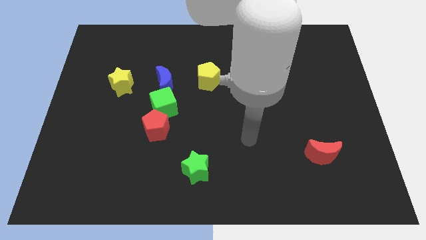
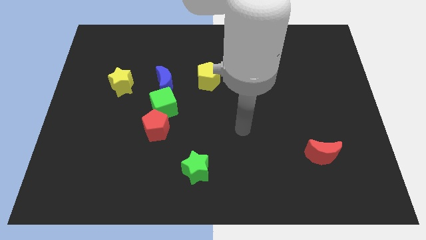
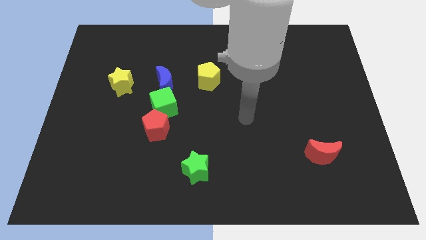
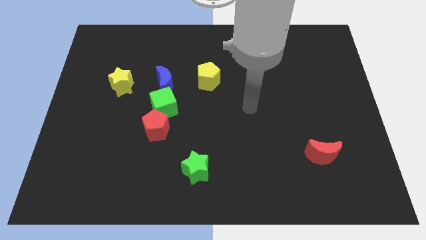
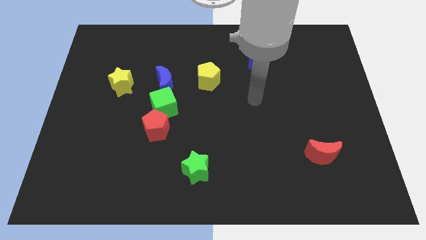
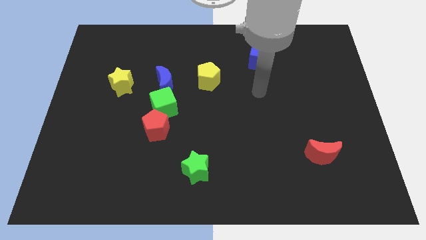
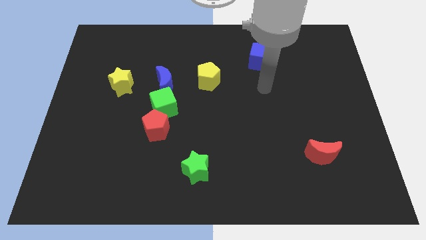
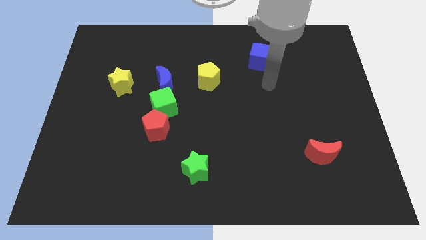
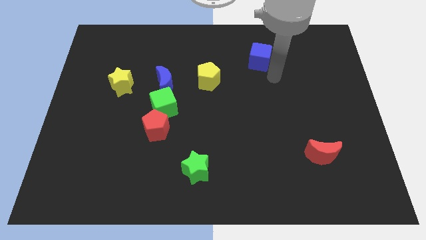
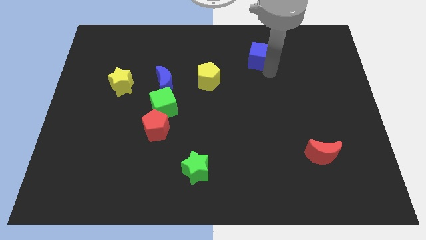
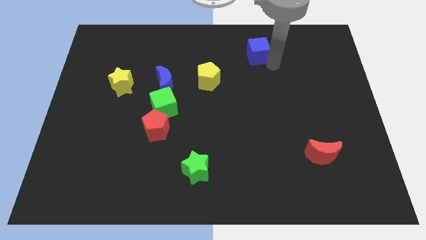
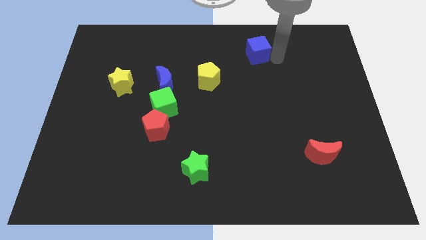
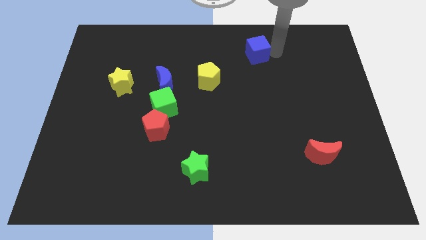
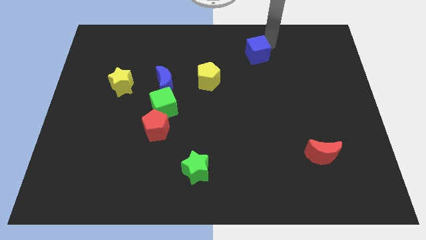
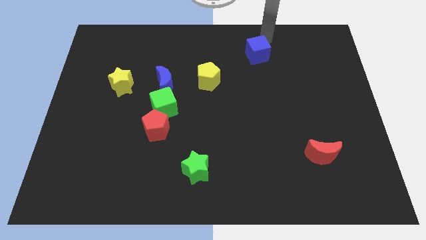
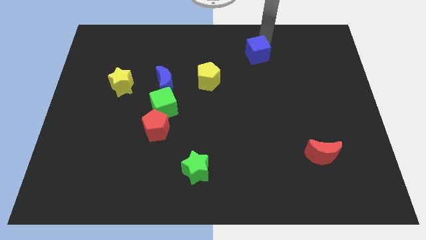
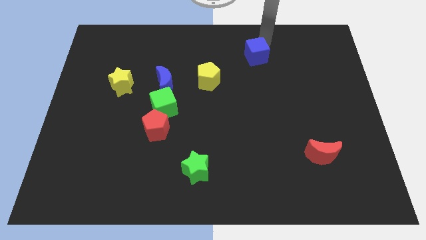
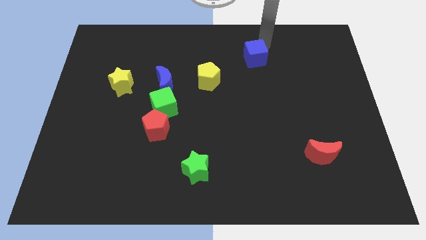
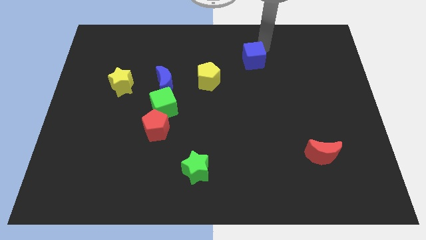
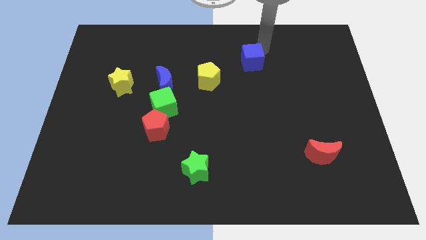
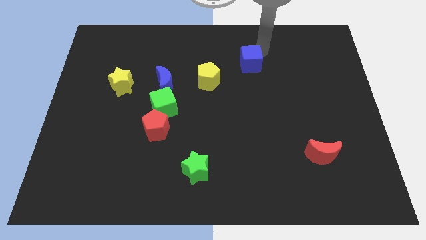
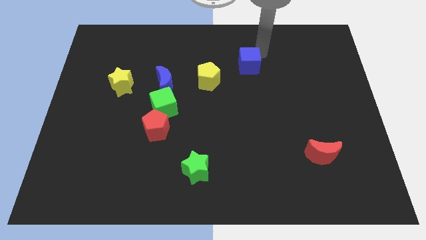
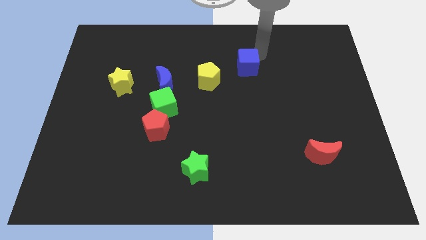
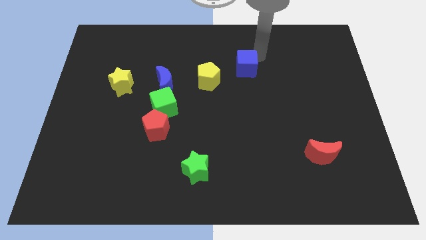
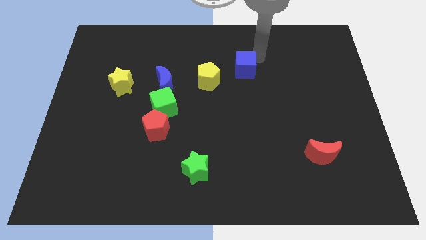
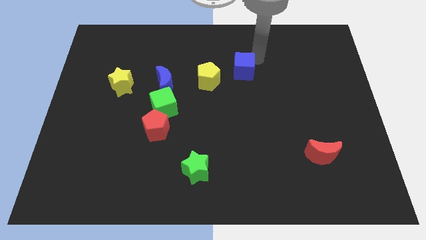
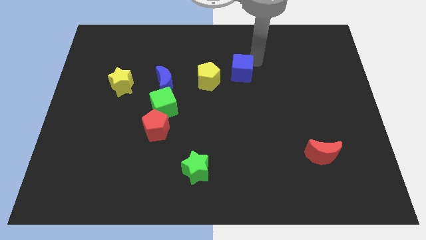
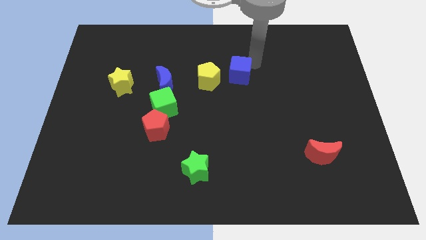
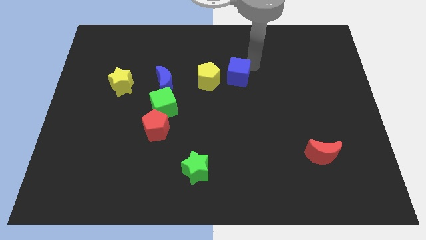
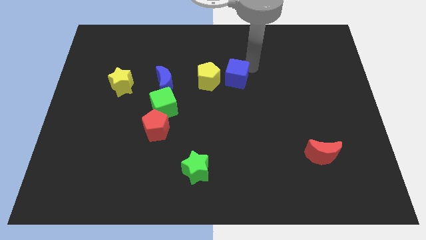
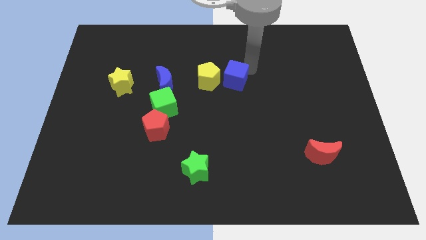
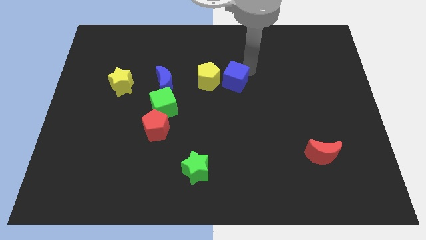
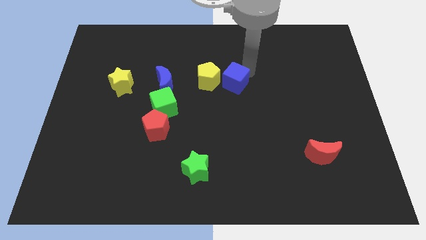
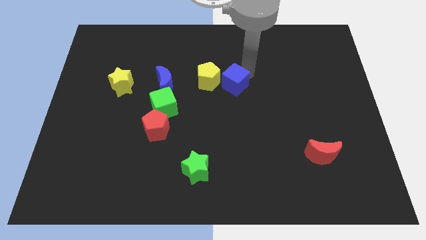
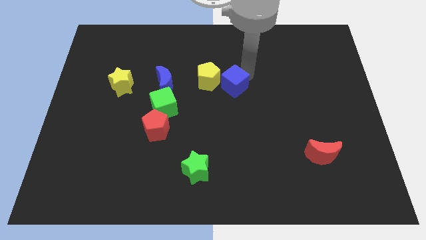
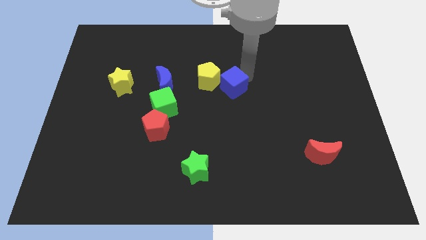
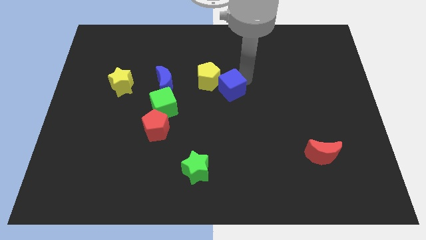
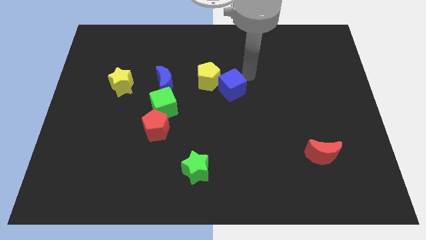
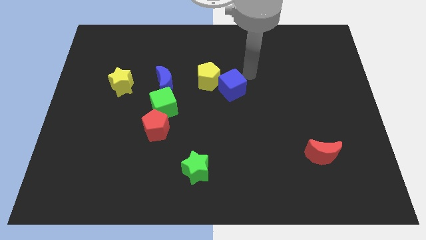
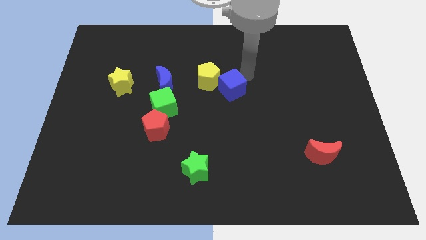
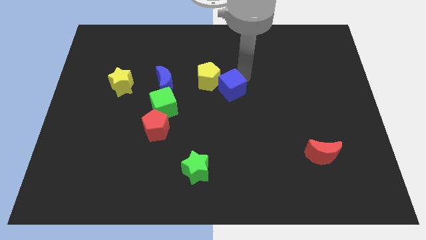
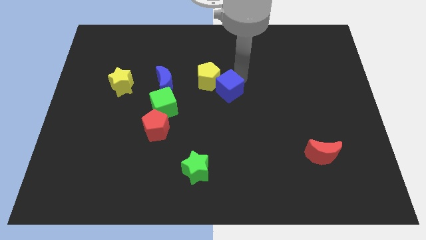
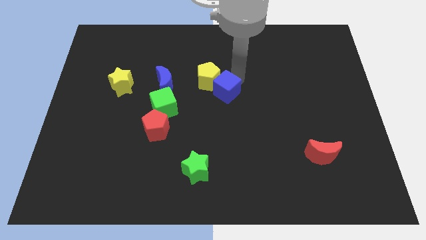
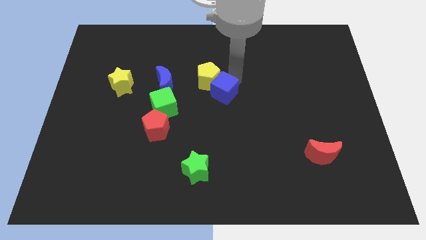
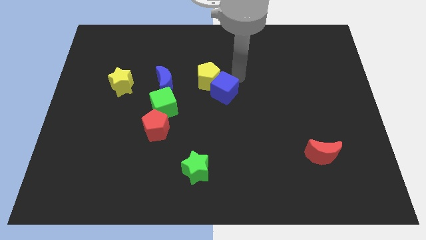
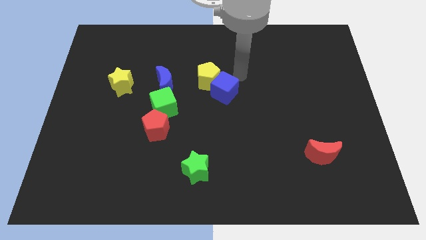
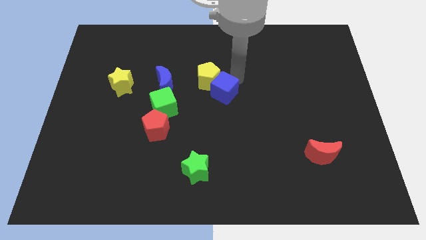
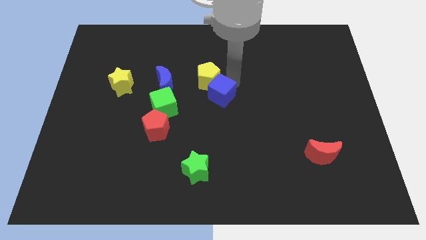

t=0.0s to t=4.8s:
push the blue cube right of the green cube

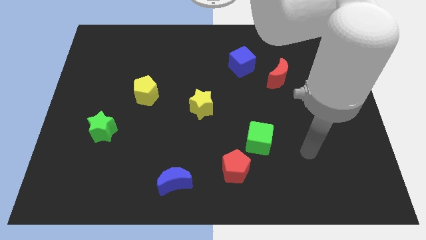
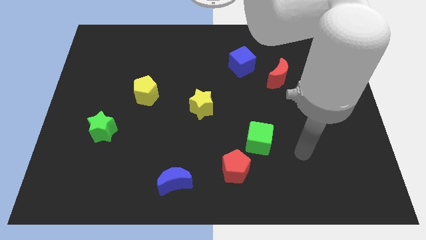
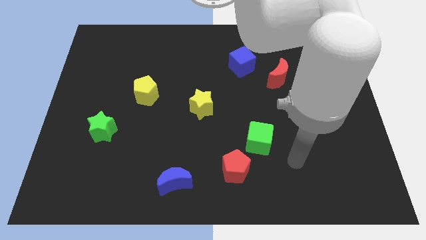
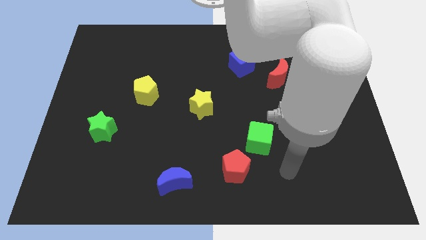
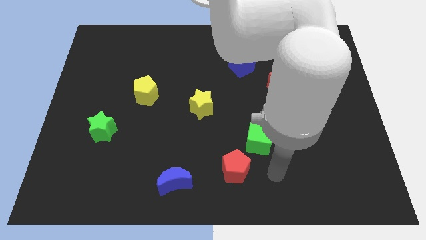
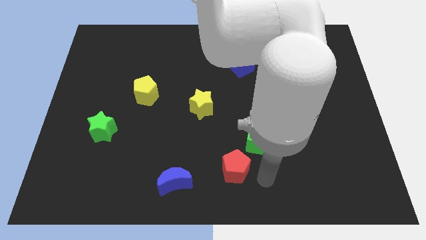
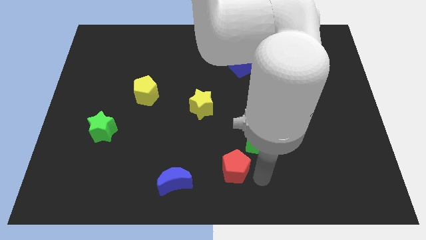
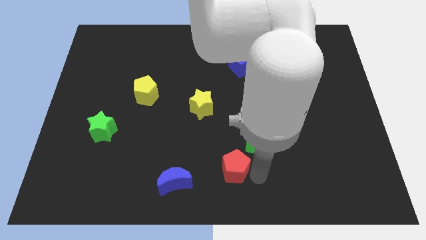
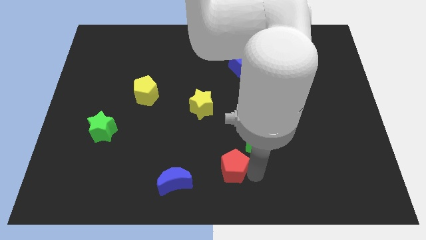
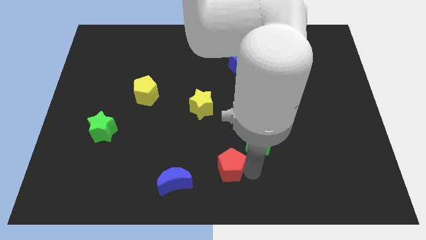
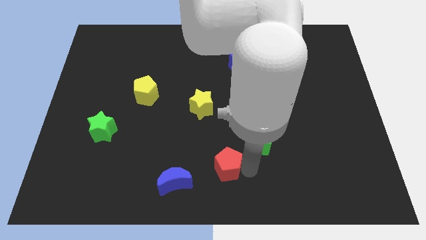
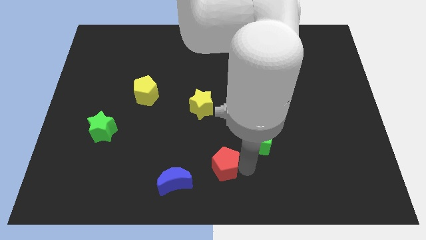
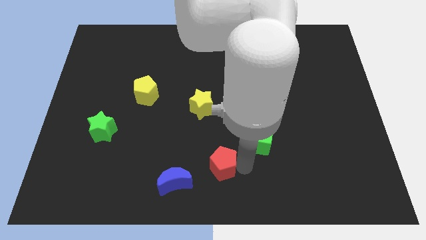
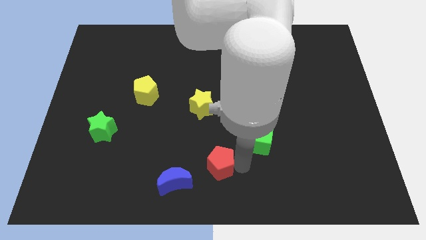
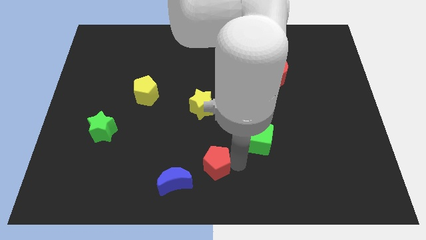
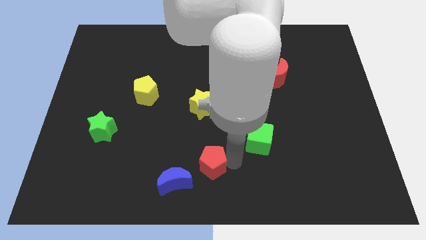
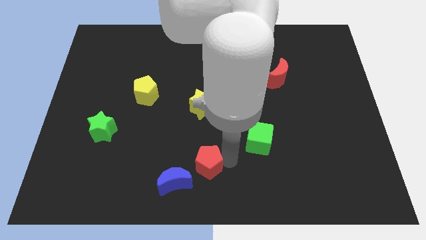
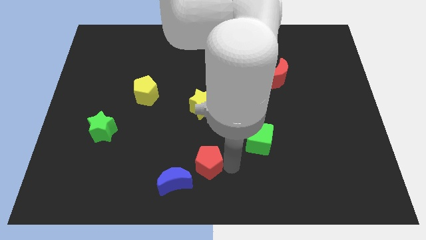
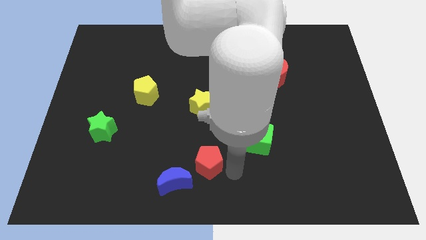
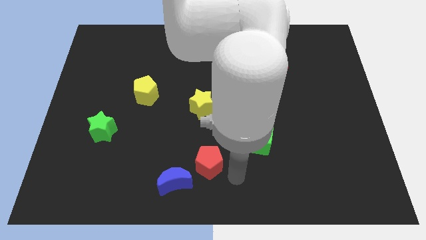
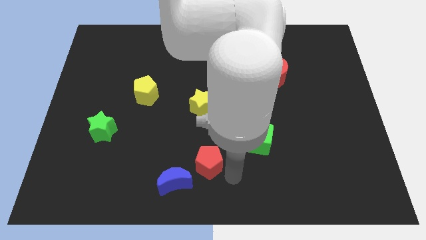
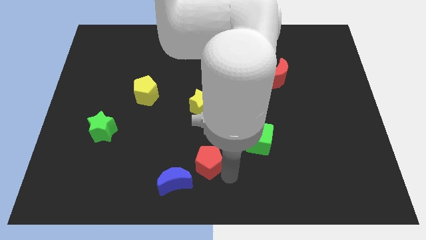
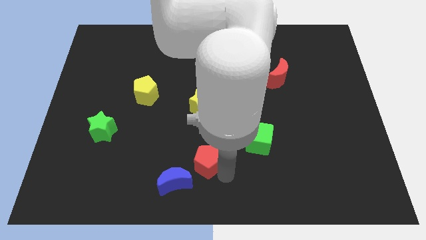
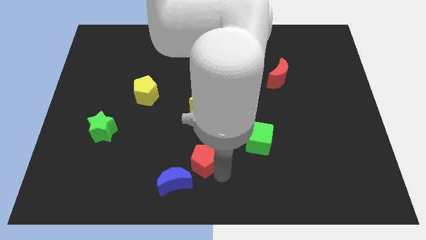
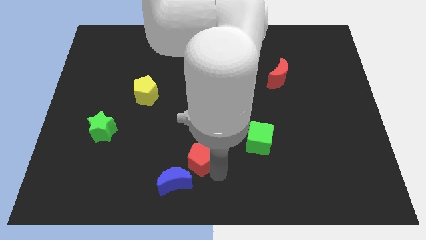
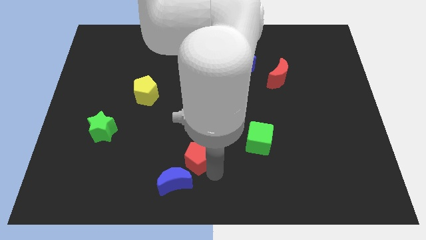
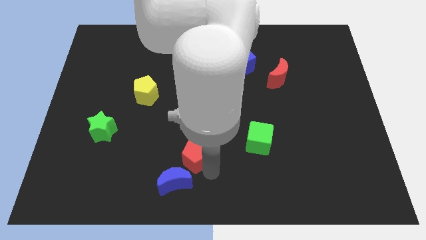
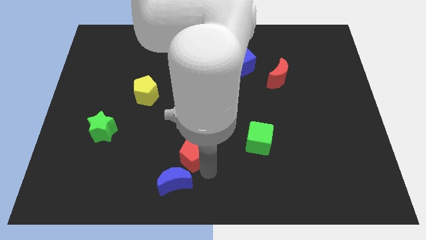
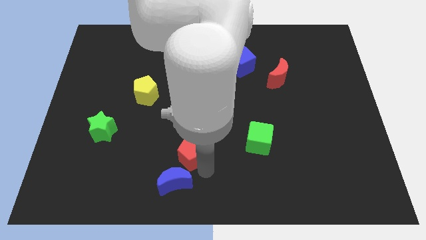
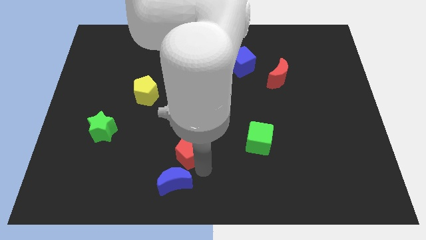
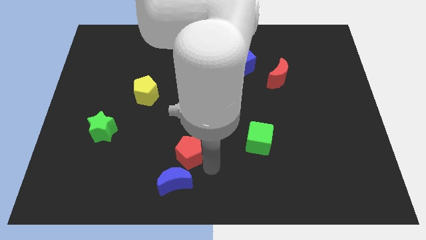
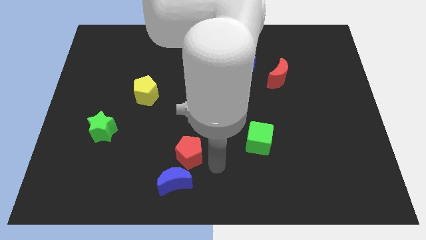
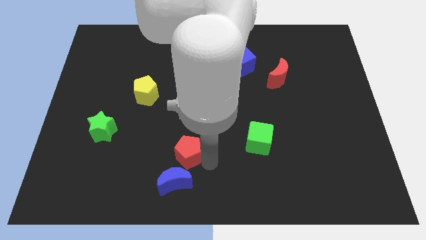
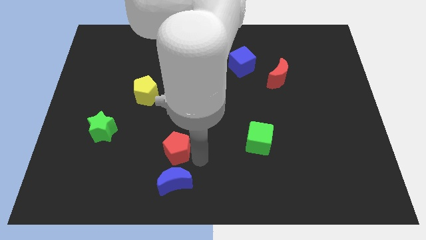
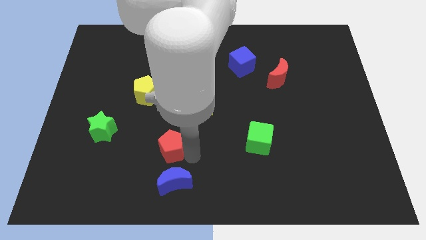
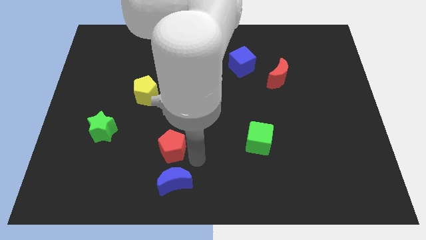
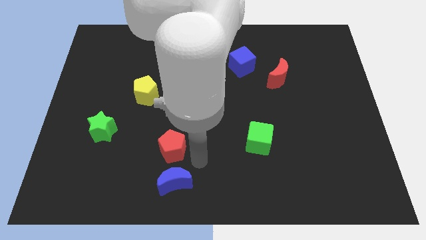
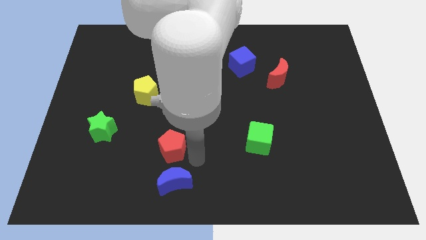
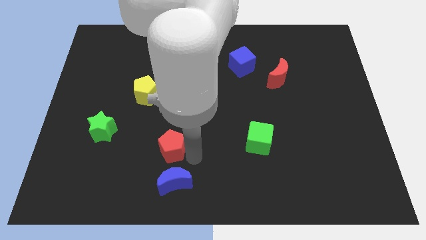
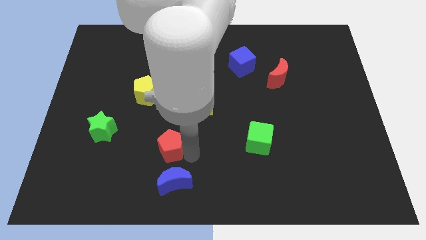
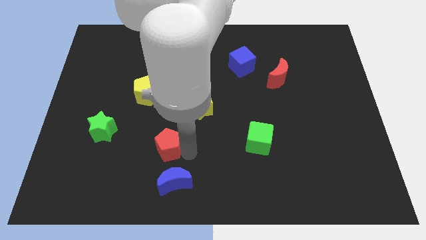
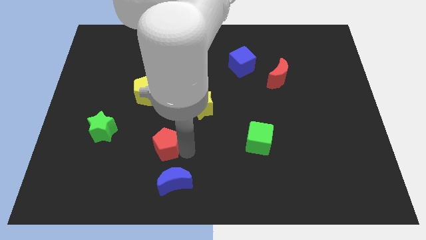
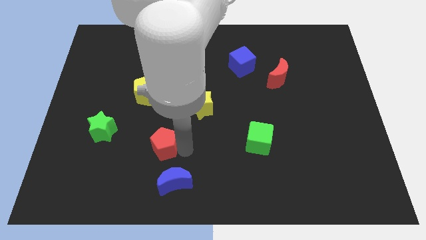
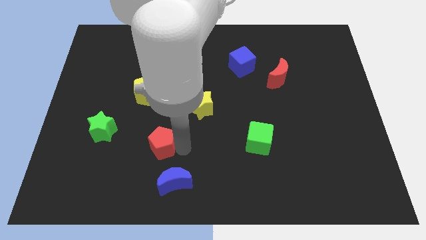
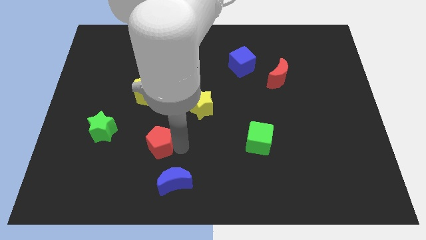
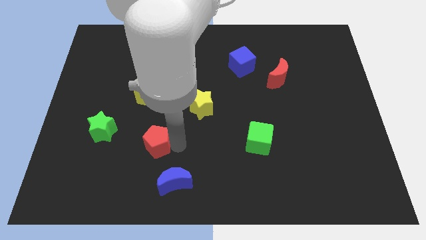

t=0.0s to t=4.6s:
slide the red pentagon below the yellow pentagon
